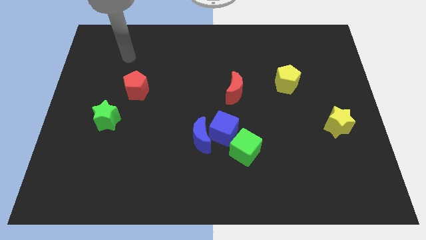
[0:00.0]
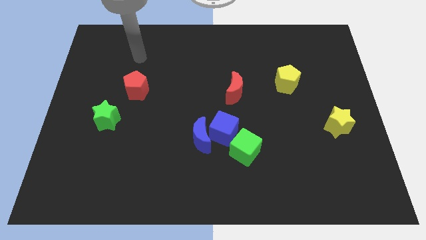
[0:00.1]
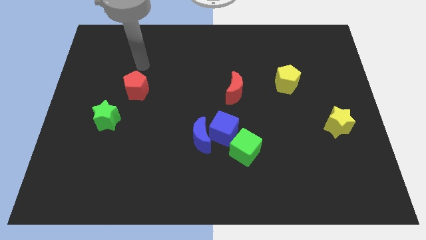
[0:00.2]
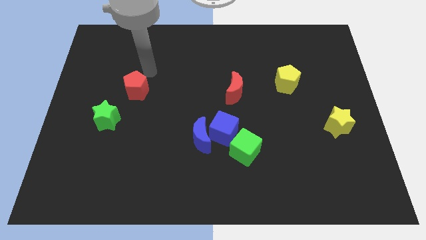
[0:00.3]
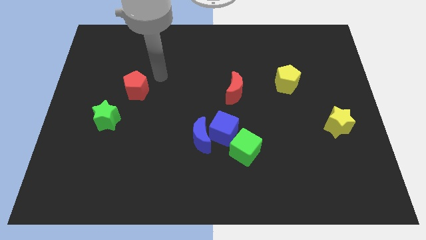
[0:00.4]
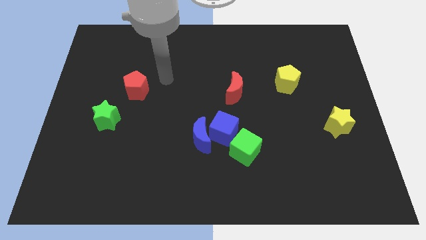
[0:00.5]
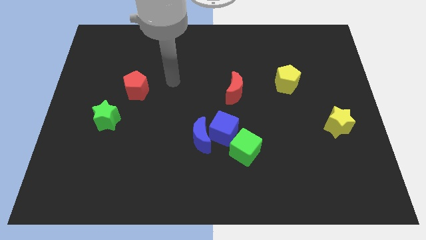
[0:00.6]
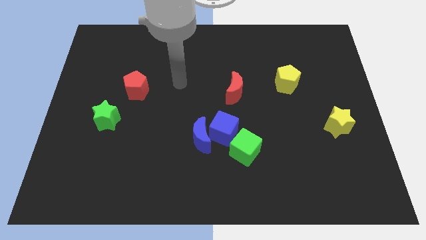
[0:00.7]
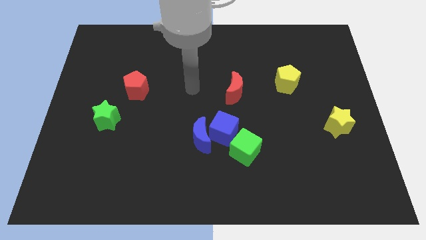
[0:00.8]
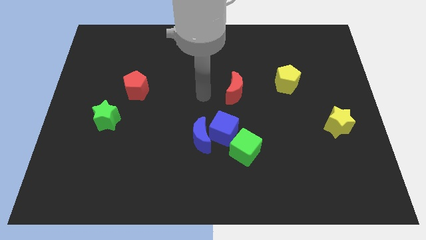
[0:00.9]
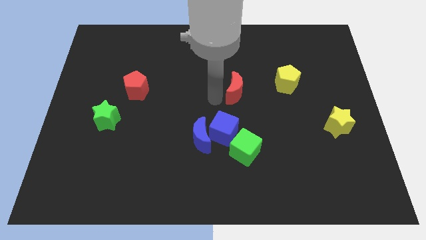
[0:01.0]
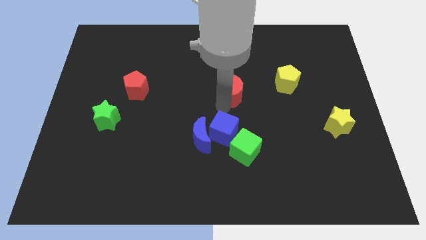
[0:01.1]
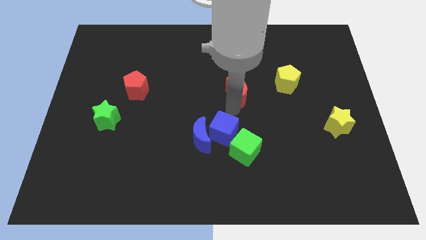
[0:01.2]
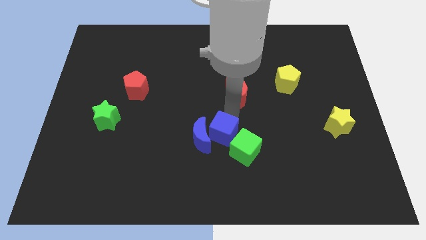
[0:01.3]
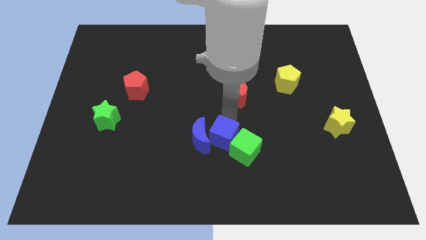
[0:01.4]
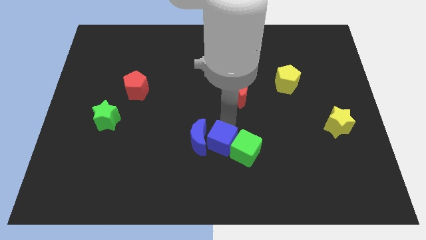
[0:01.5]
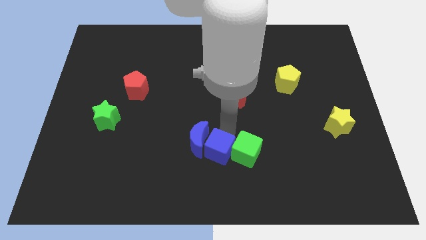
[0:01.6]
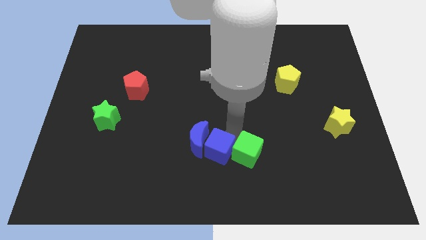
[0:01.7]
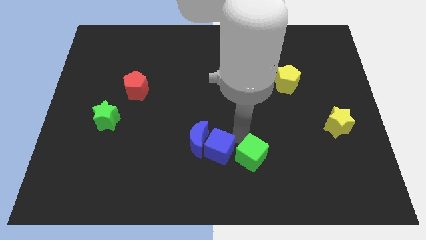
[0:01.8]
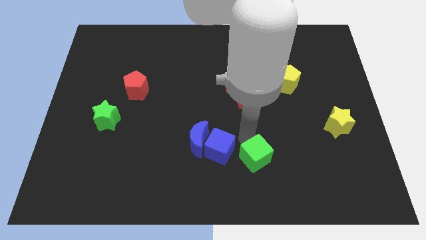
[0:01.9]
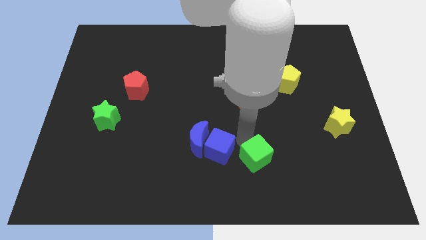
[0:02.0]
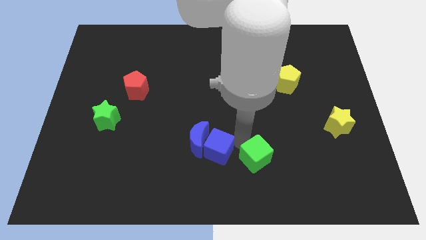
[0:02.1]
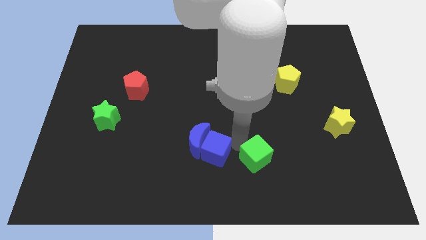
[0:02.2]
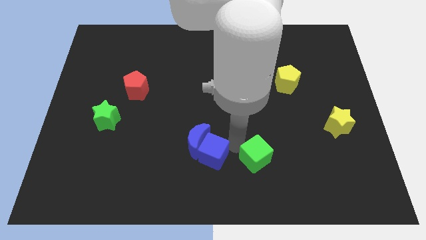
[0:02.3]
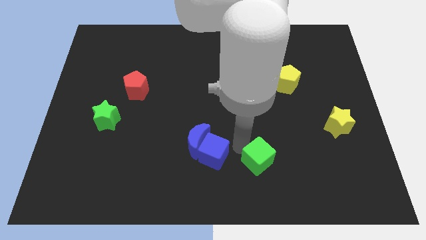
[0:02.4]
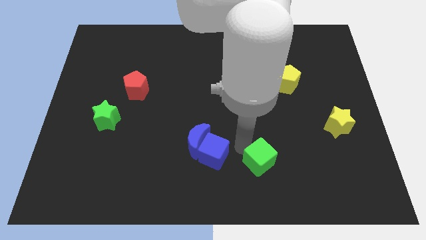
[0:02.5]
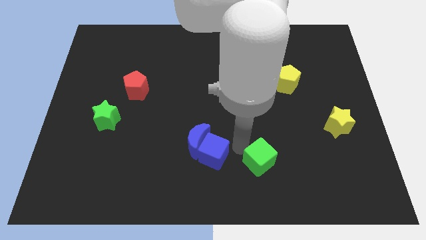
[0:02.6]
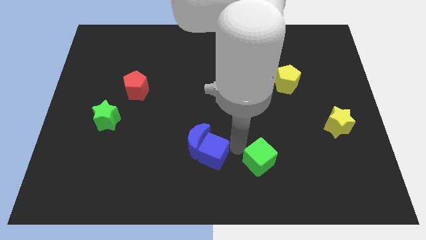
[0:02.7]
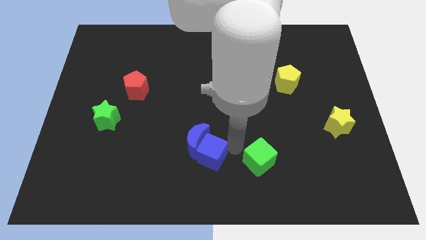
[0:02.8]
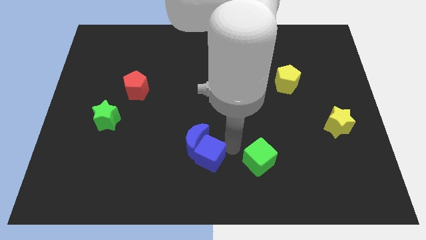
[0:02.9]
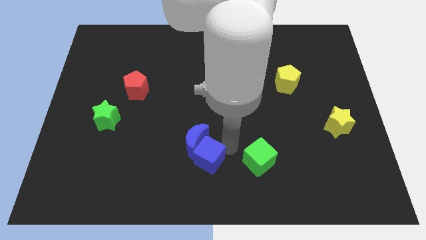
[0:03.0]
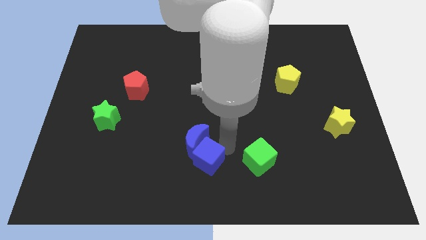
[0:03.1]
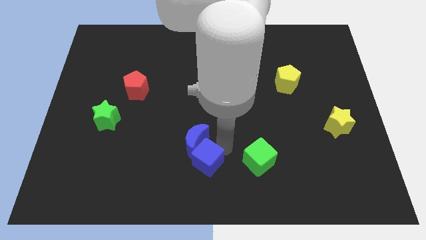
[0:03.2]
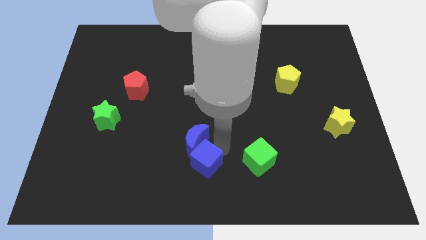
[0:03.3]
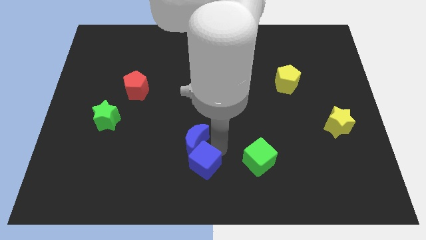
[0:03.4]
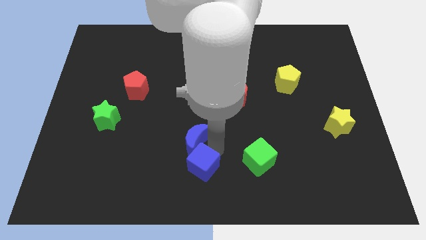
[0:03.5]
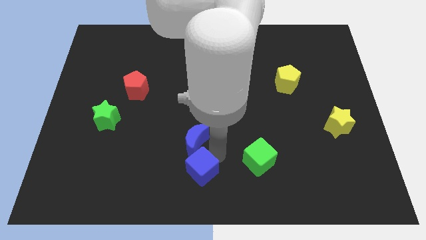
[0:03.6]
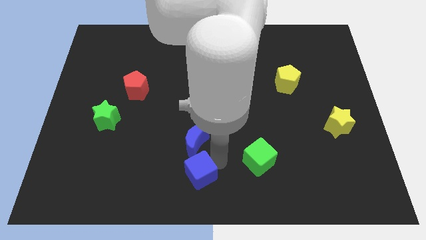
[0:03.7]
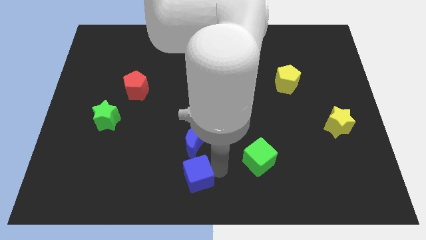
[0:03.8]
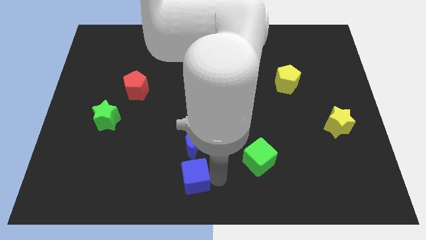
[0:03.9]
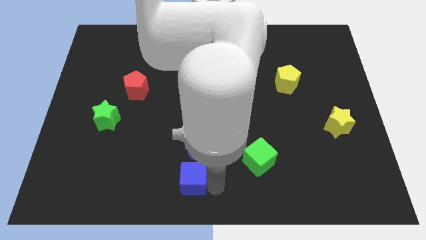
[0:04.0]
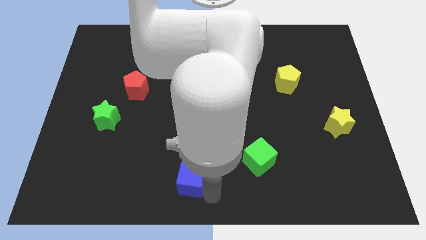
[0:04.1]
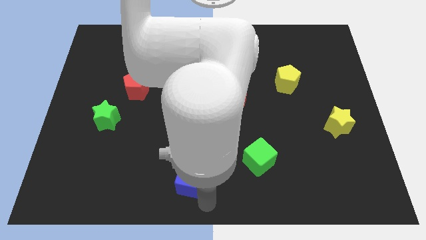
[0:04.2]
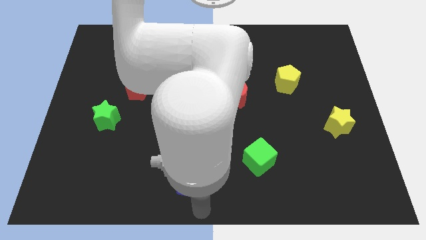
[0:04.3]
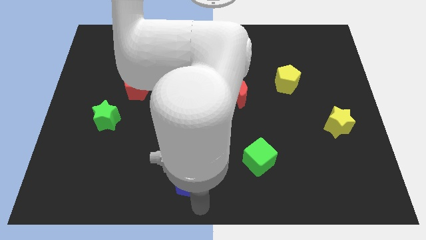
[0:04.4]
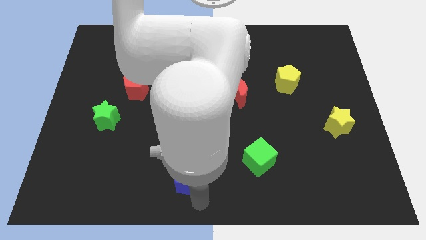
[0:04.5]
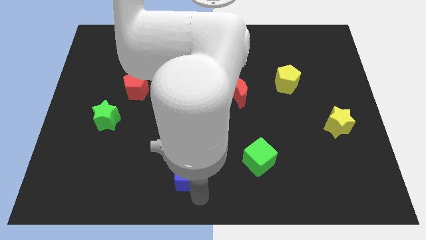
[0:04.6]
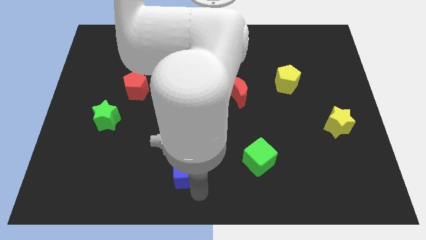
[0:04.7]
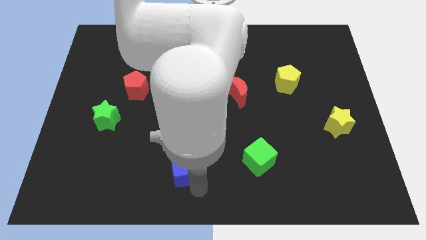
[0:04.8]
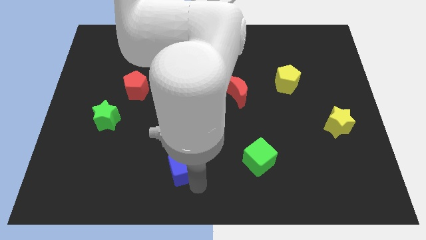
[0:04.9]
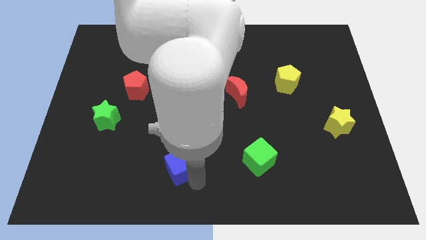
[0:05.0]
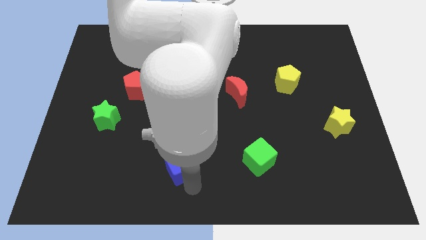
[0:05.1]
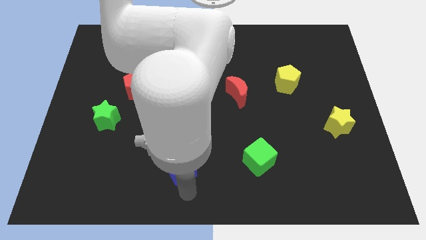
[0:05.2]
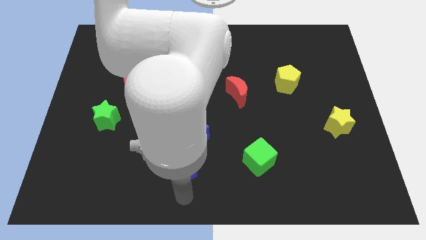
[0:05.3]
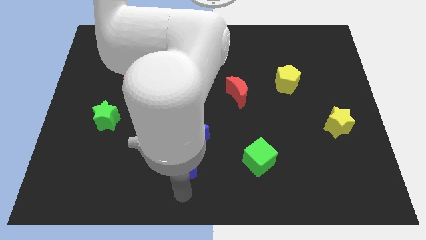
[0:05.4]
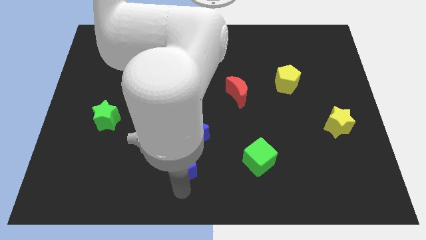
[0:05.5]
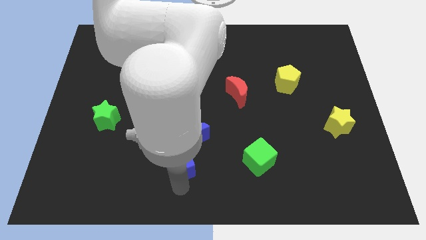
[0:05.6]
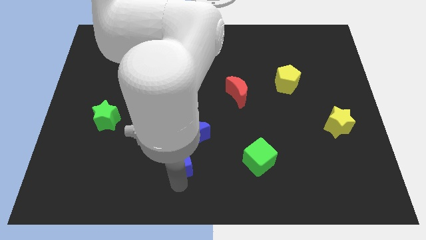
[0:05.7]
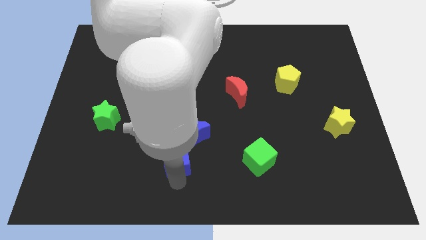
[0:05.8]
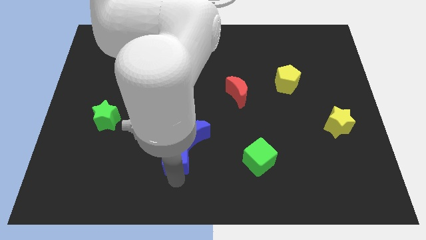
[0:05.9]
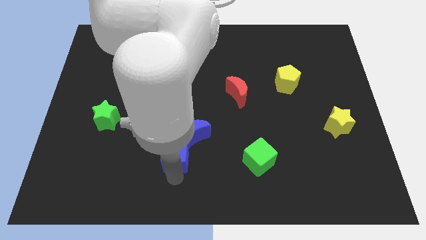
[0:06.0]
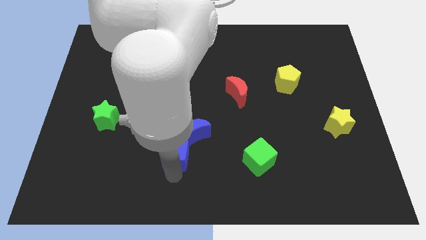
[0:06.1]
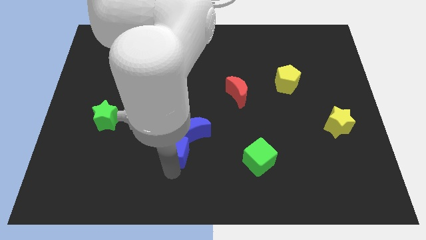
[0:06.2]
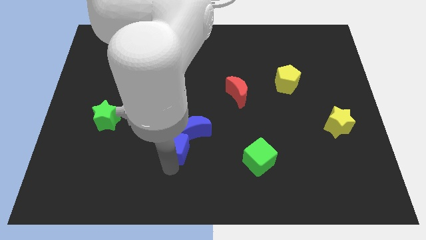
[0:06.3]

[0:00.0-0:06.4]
move the blue cube left of the blue moon
